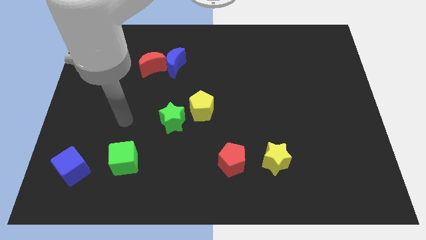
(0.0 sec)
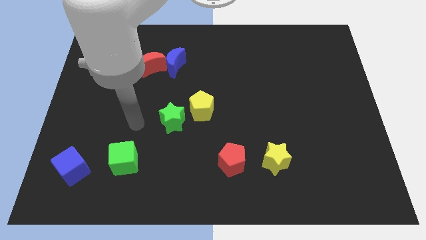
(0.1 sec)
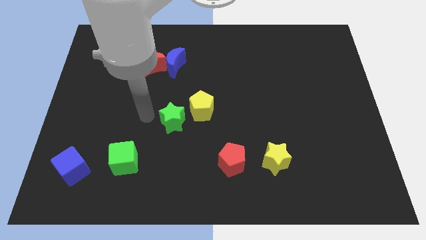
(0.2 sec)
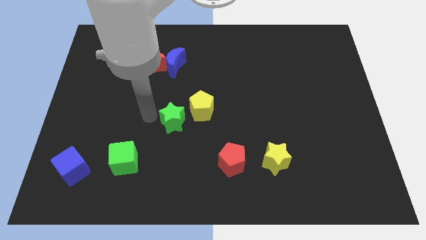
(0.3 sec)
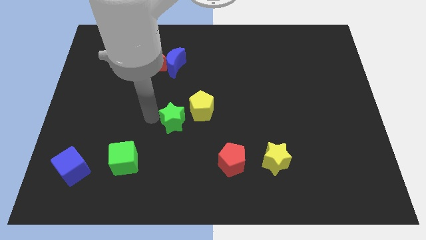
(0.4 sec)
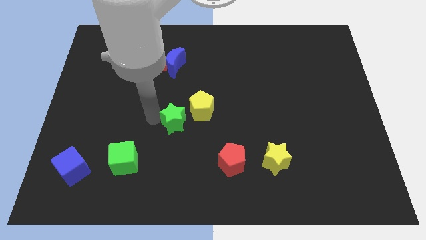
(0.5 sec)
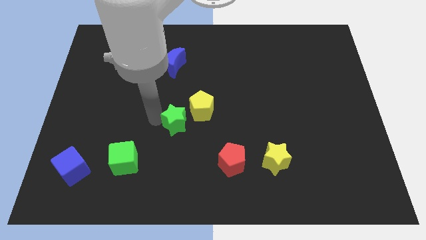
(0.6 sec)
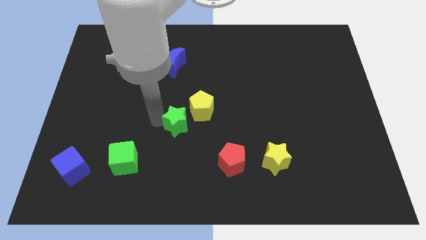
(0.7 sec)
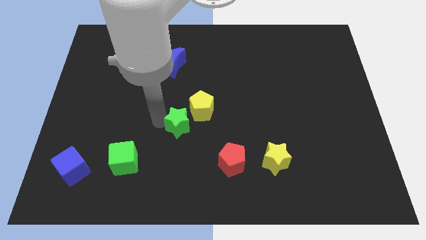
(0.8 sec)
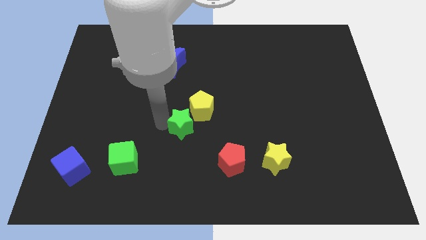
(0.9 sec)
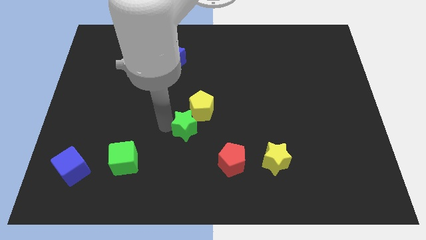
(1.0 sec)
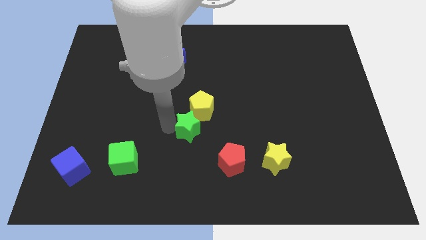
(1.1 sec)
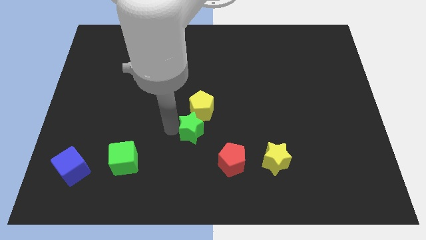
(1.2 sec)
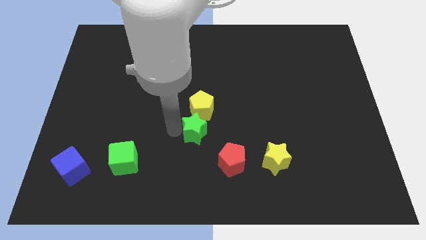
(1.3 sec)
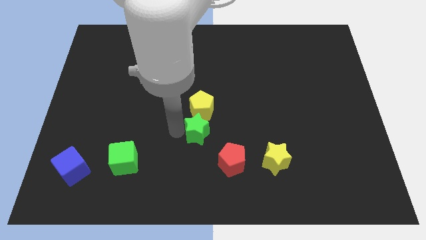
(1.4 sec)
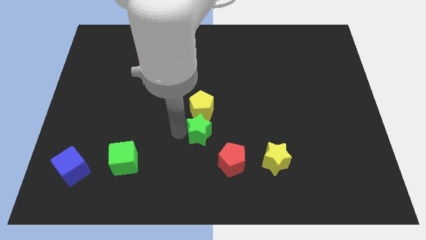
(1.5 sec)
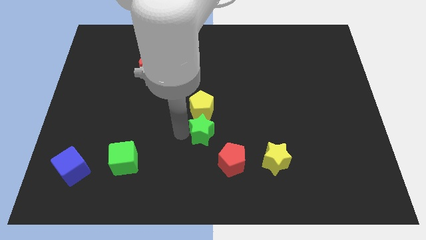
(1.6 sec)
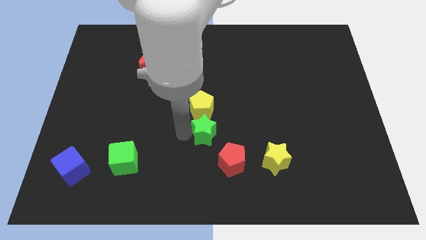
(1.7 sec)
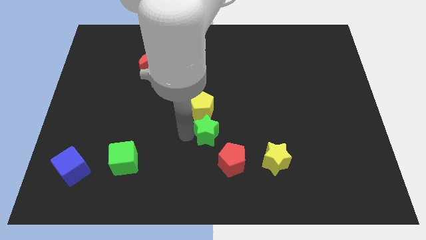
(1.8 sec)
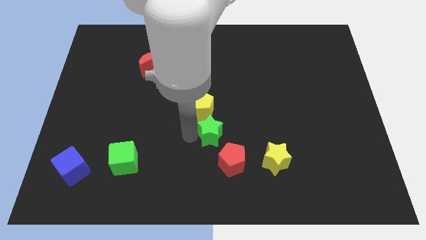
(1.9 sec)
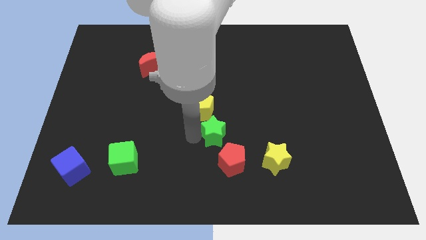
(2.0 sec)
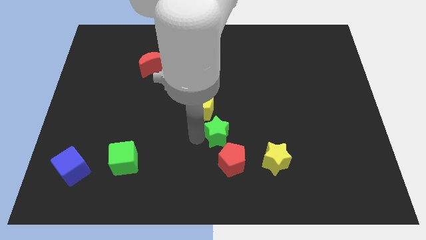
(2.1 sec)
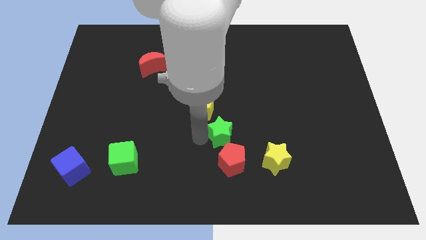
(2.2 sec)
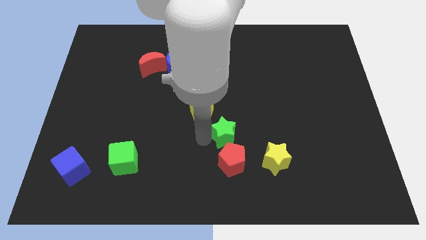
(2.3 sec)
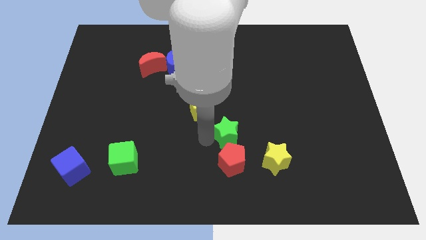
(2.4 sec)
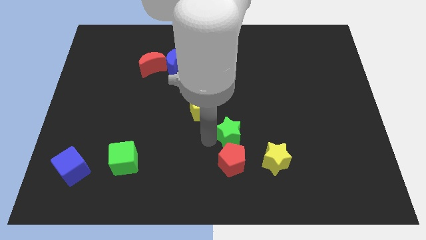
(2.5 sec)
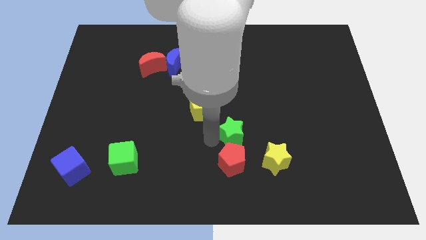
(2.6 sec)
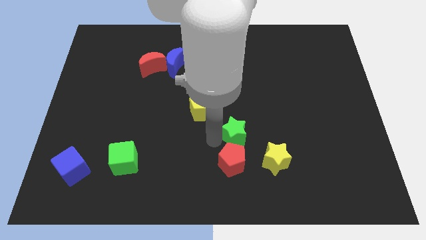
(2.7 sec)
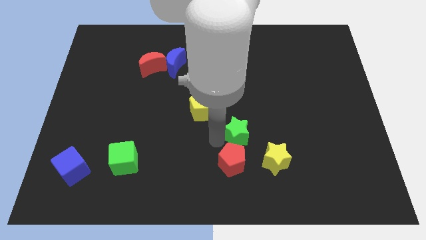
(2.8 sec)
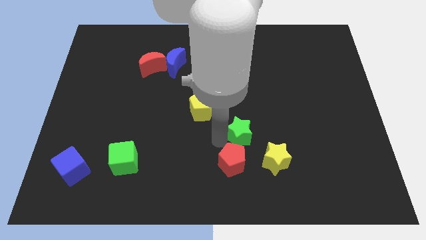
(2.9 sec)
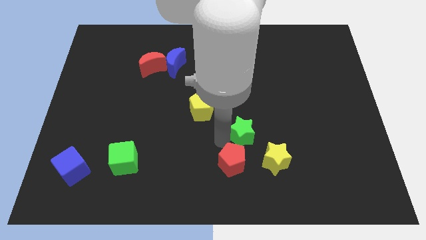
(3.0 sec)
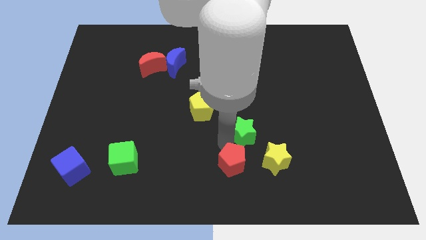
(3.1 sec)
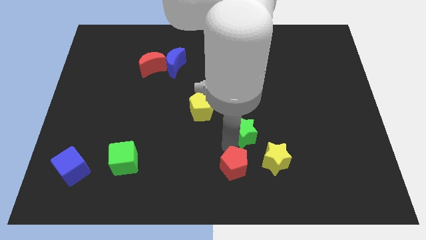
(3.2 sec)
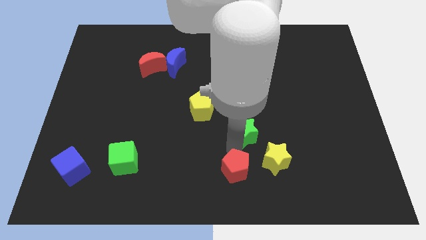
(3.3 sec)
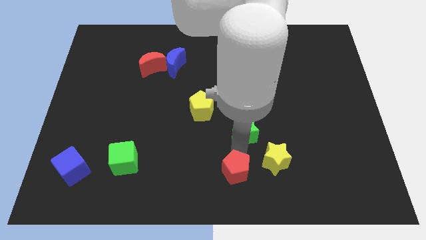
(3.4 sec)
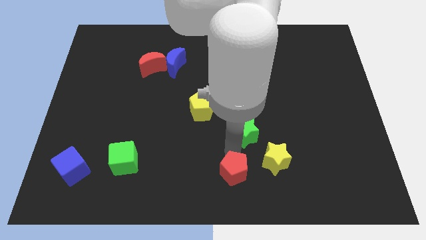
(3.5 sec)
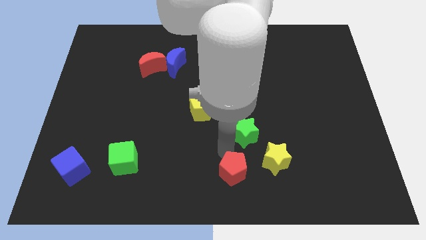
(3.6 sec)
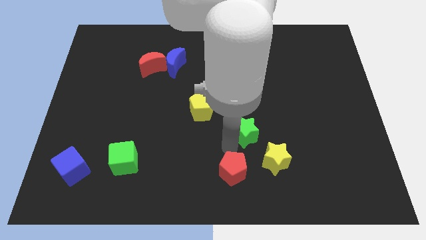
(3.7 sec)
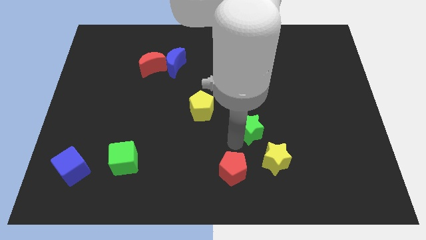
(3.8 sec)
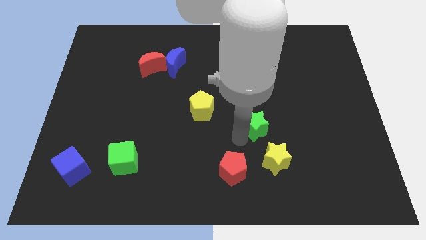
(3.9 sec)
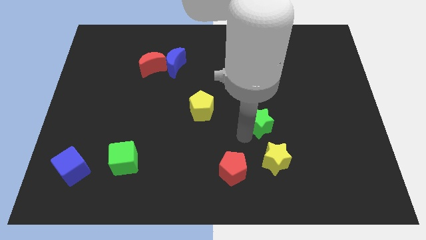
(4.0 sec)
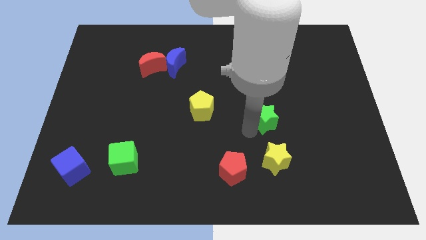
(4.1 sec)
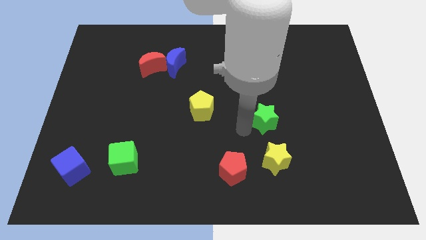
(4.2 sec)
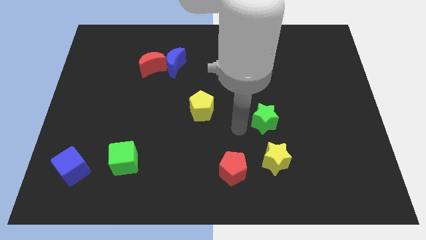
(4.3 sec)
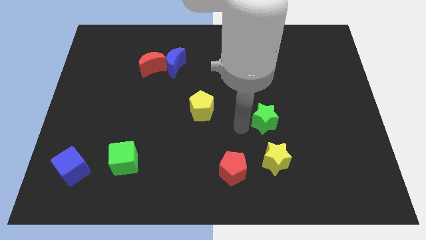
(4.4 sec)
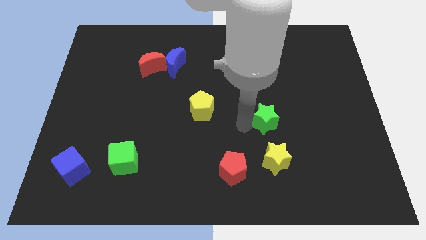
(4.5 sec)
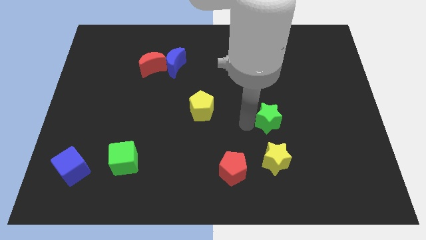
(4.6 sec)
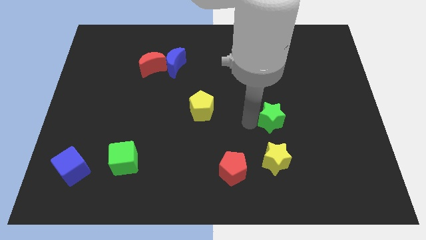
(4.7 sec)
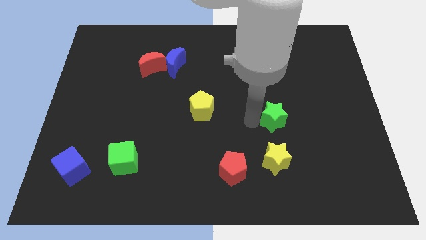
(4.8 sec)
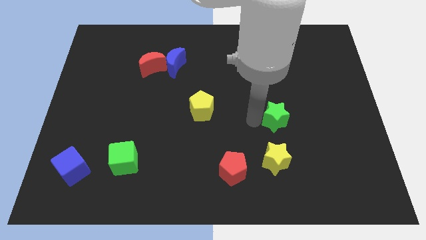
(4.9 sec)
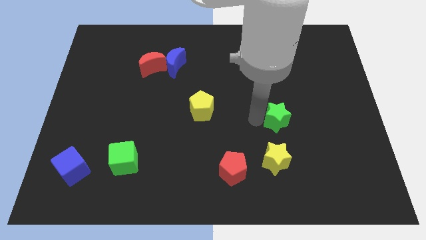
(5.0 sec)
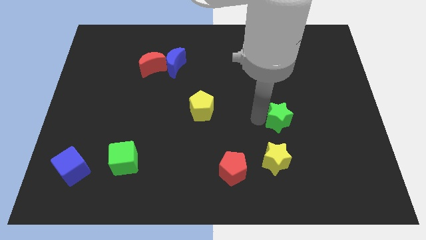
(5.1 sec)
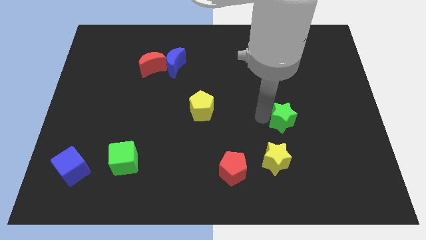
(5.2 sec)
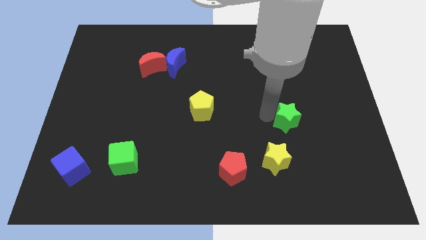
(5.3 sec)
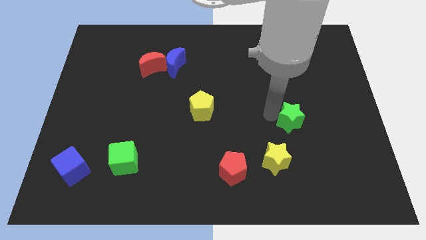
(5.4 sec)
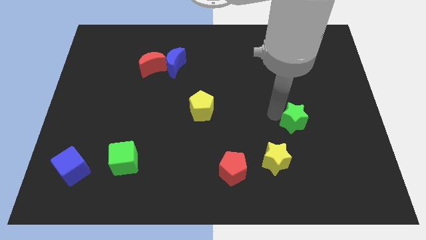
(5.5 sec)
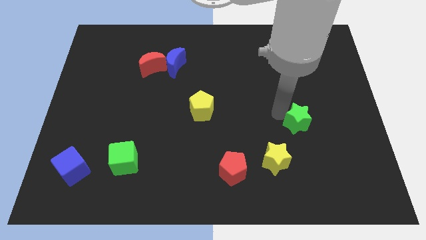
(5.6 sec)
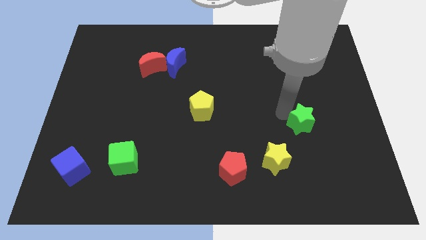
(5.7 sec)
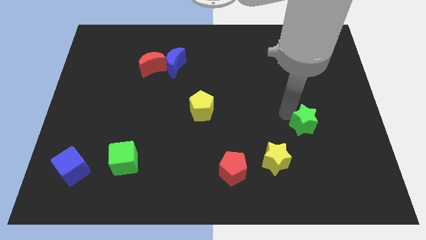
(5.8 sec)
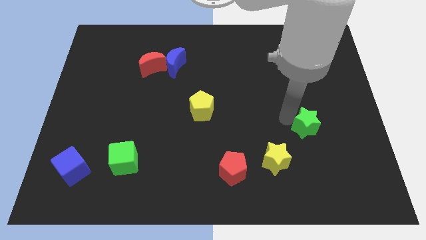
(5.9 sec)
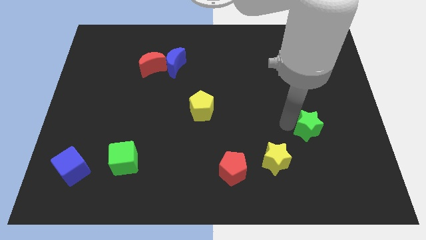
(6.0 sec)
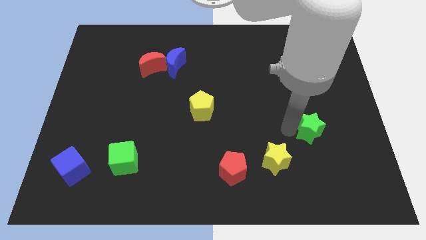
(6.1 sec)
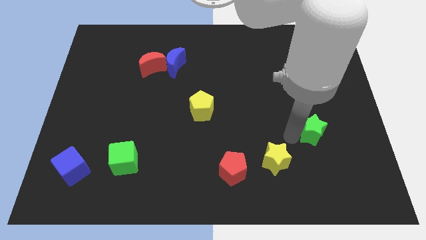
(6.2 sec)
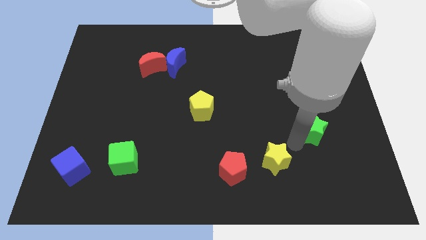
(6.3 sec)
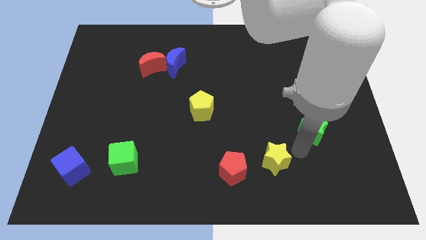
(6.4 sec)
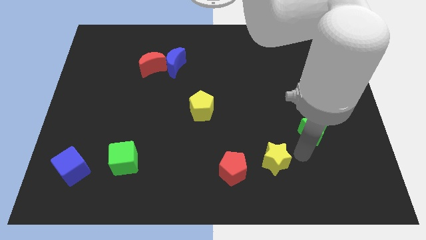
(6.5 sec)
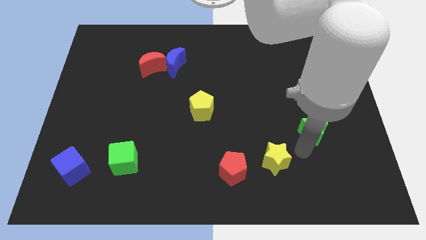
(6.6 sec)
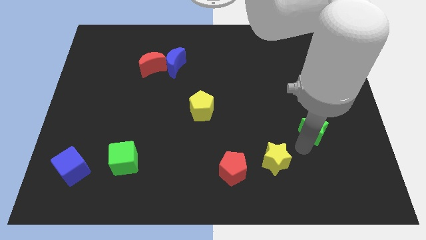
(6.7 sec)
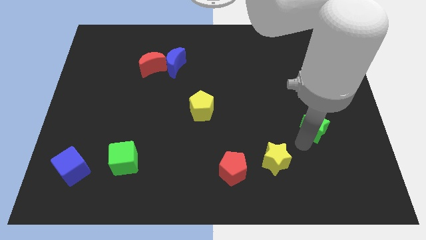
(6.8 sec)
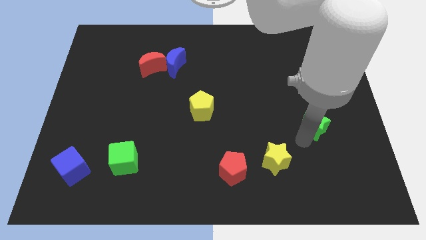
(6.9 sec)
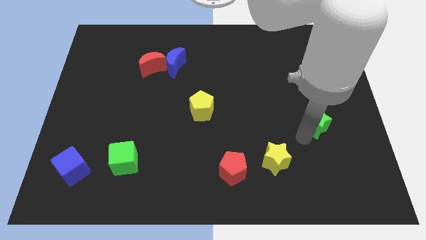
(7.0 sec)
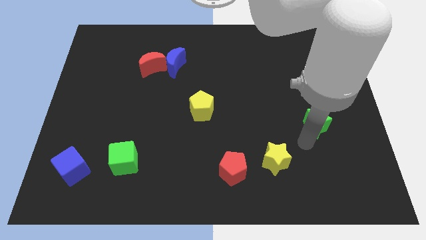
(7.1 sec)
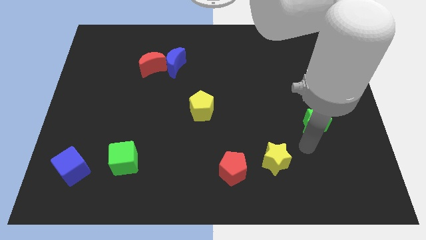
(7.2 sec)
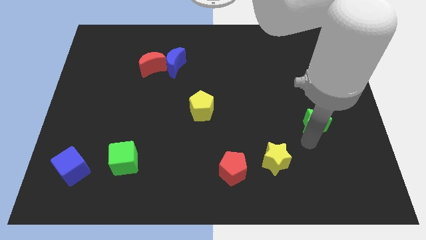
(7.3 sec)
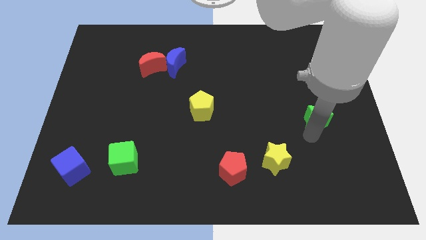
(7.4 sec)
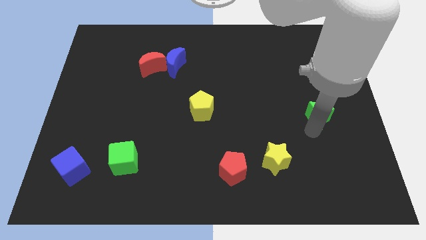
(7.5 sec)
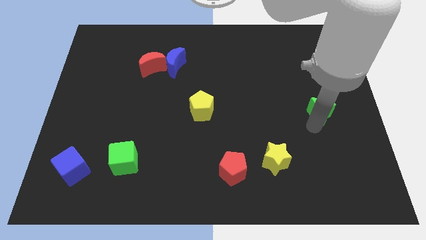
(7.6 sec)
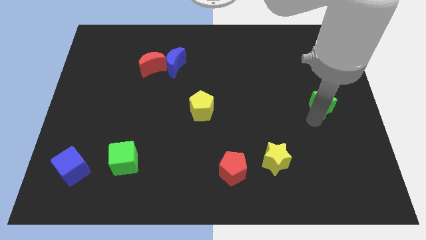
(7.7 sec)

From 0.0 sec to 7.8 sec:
push the green star to the right side
